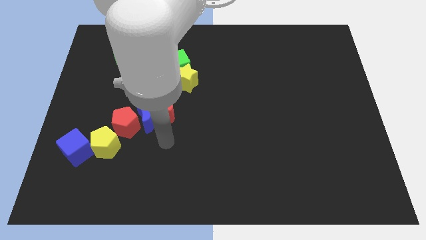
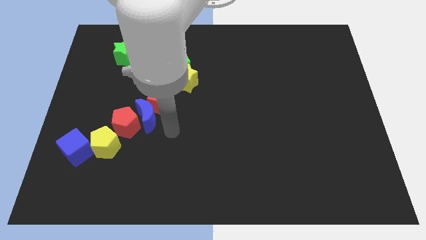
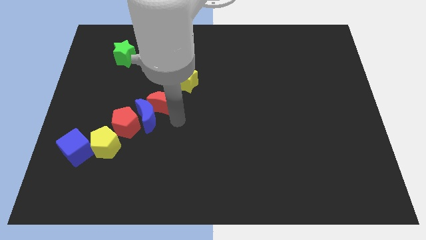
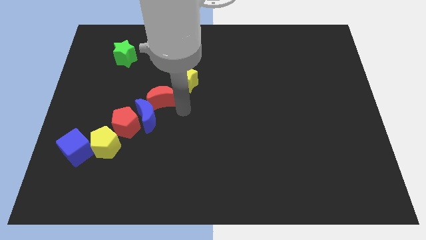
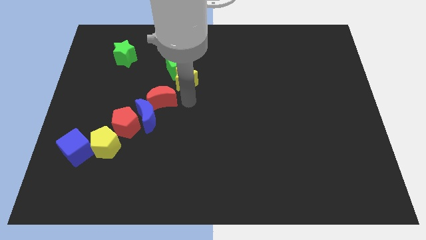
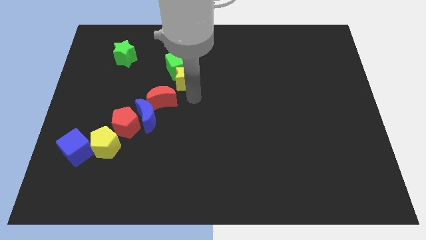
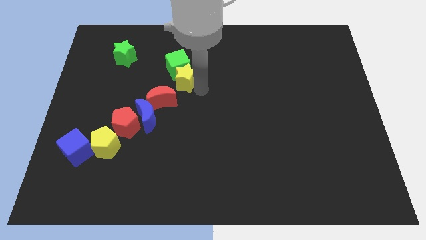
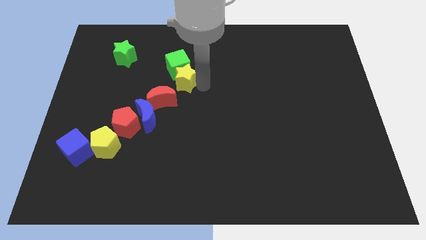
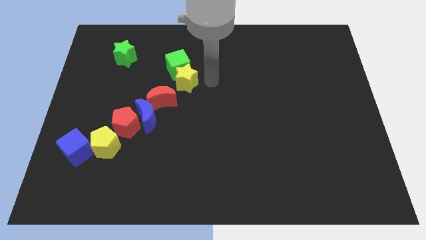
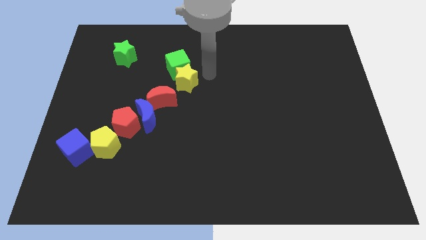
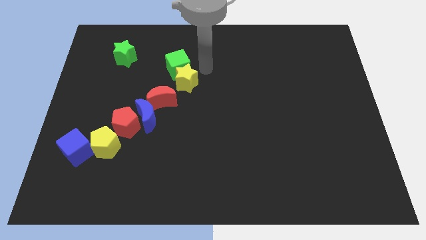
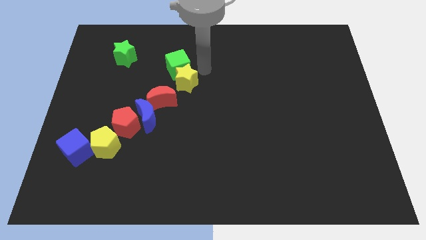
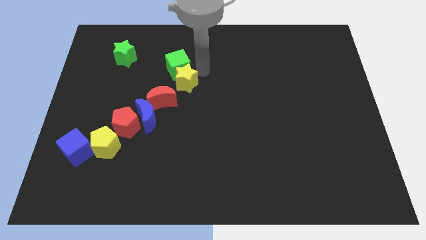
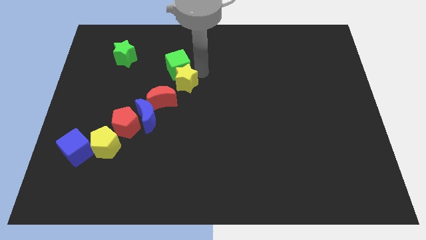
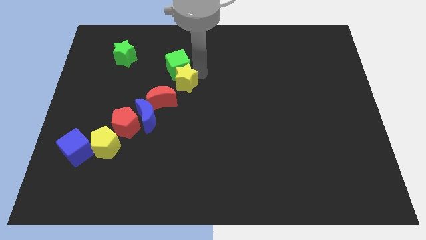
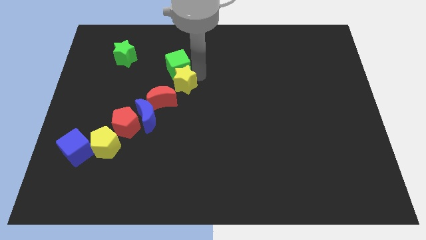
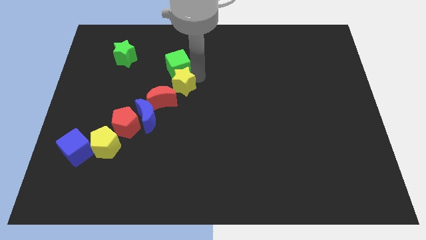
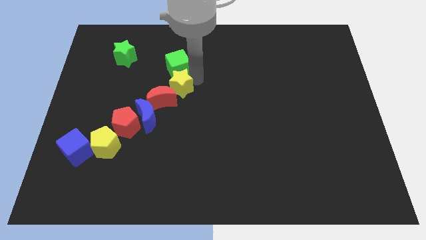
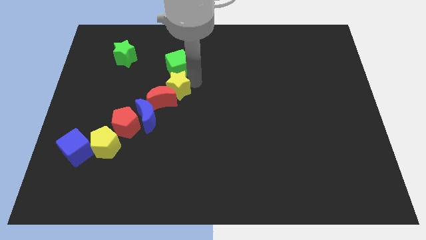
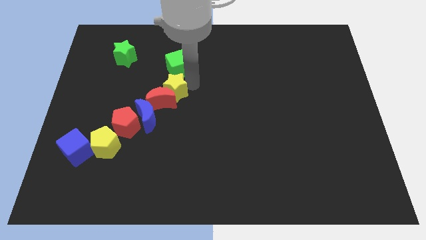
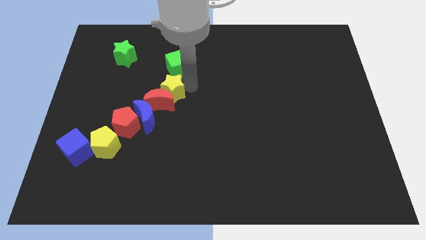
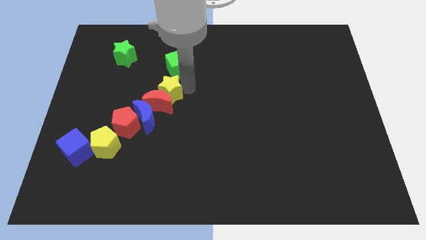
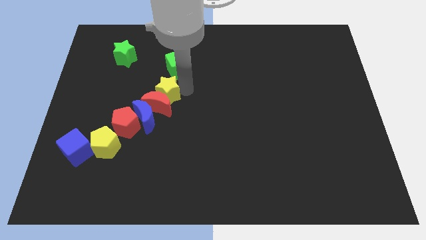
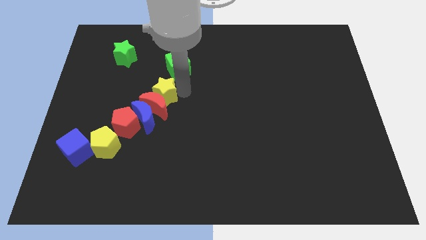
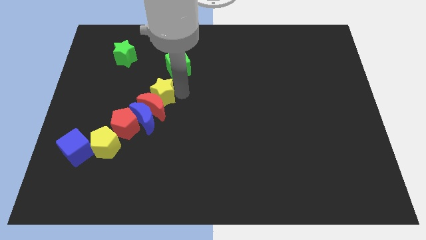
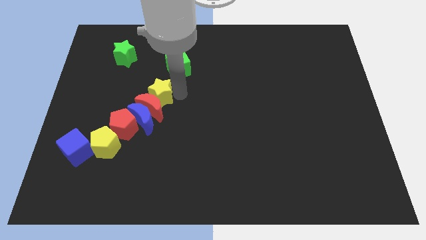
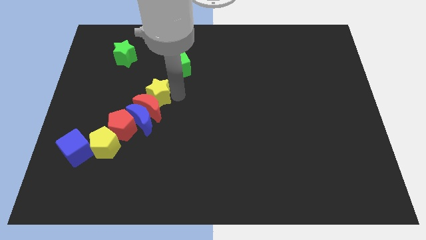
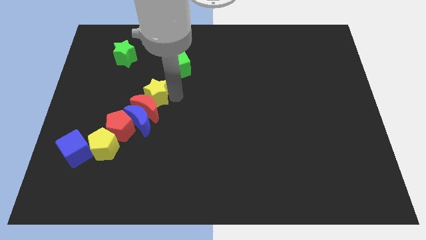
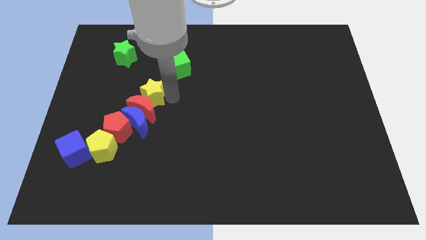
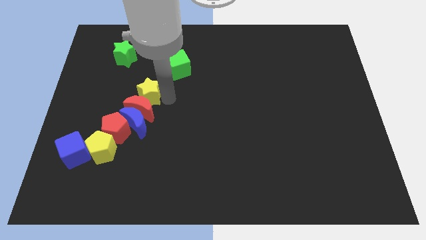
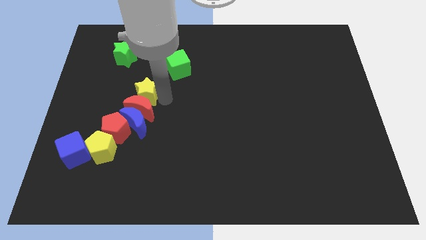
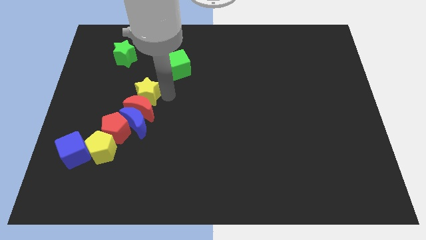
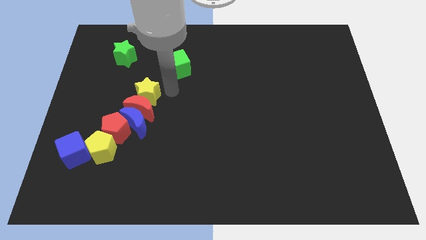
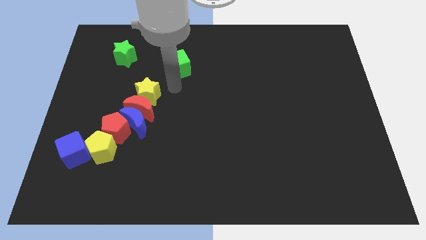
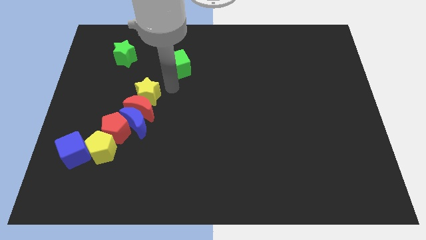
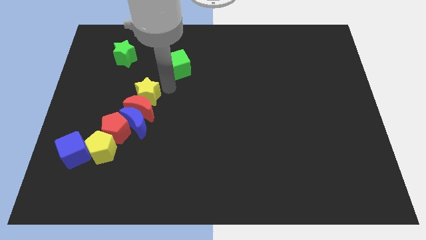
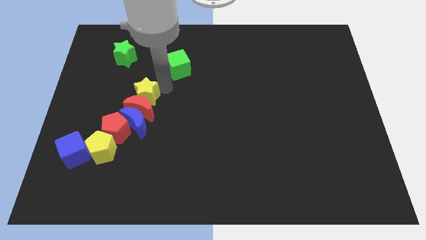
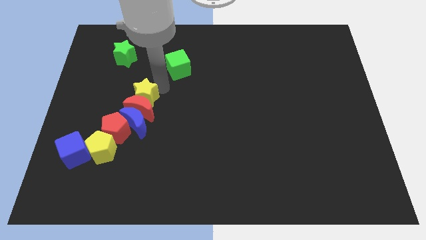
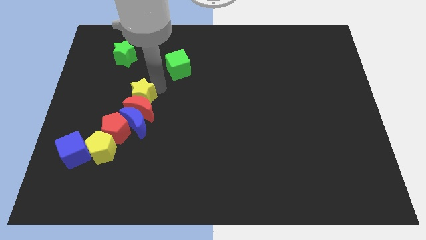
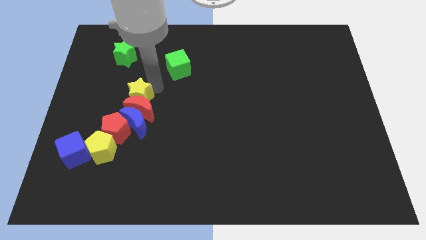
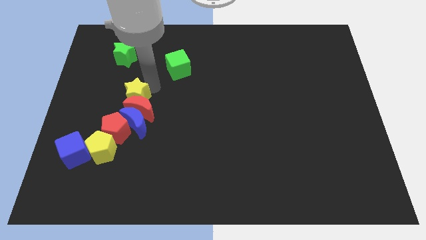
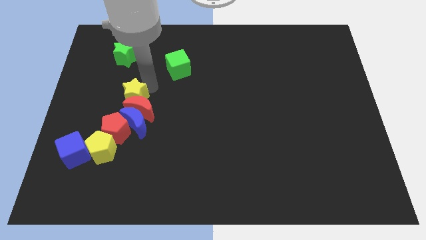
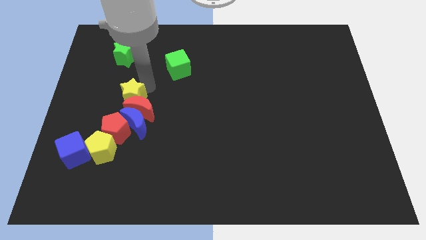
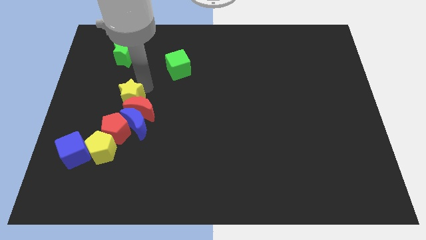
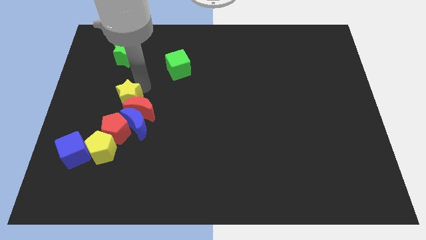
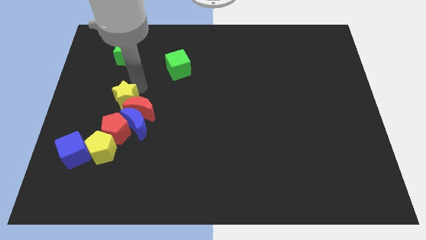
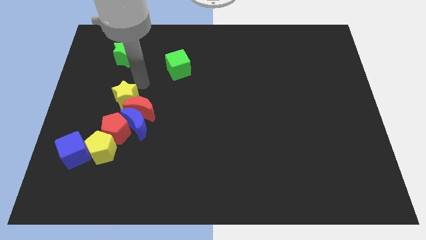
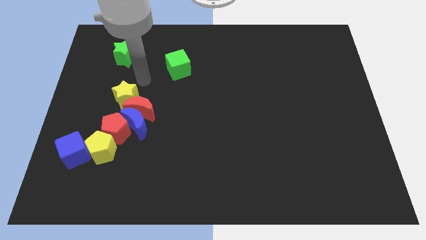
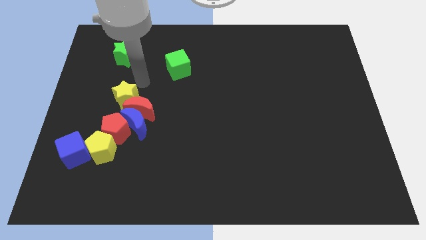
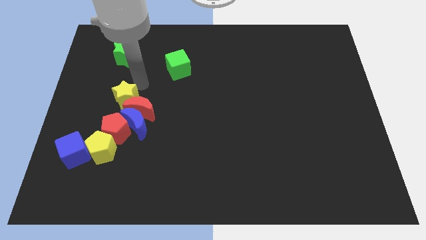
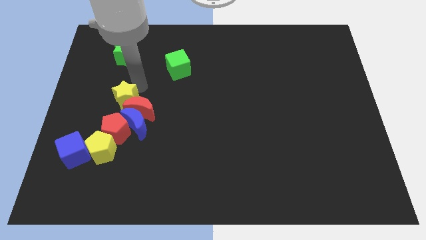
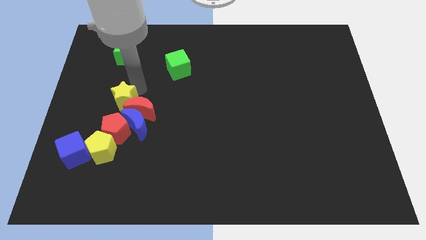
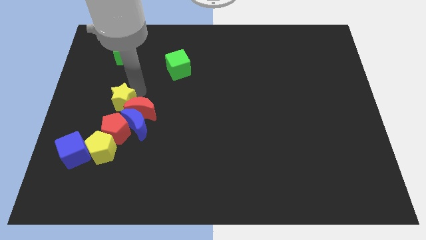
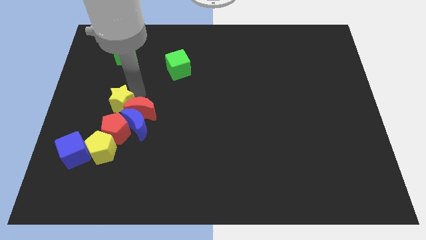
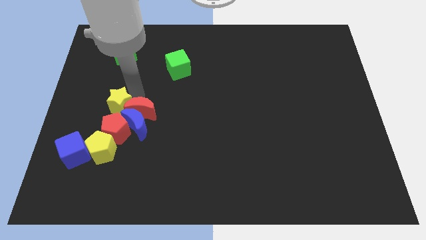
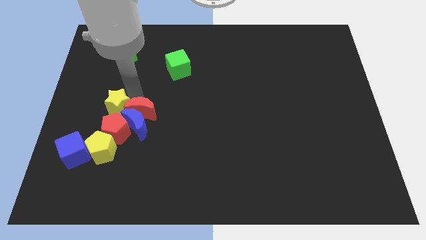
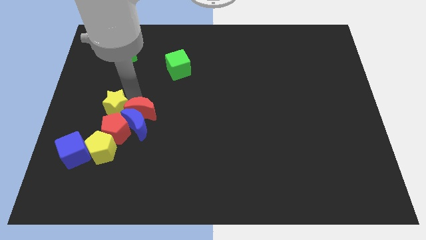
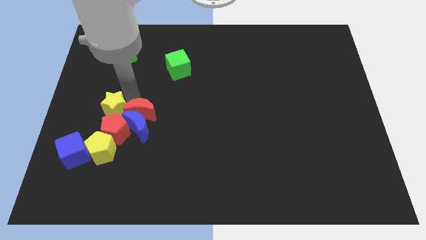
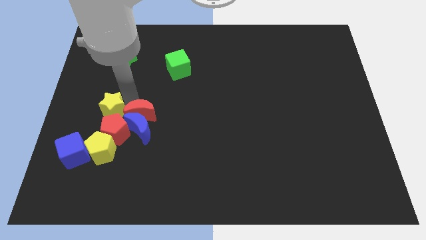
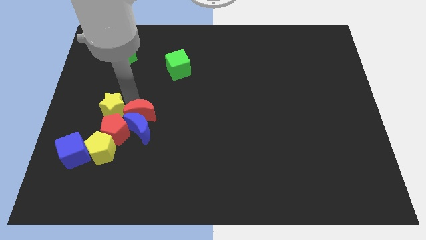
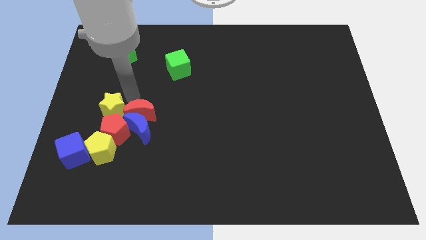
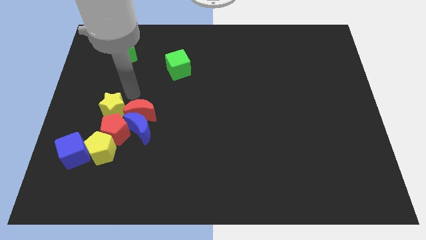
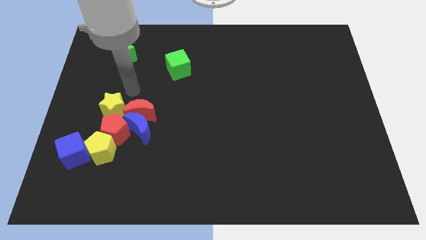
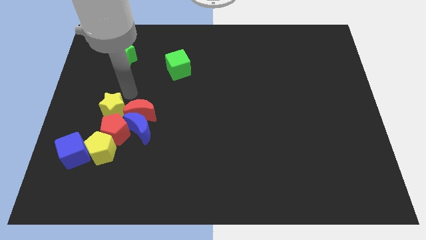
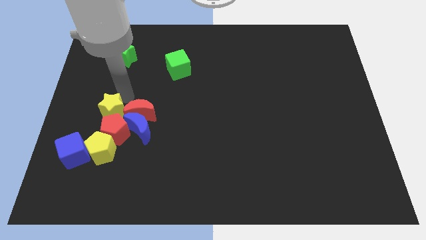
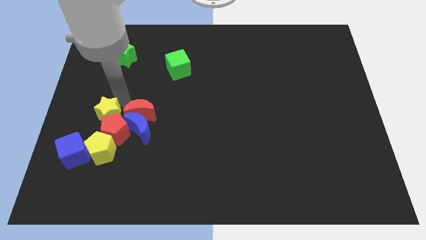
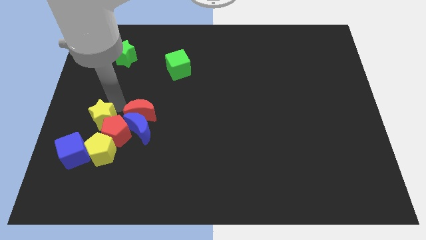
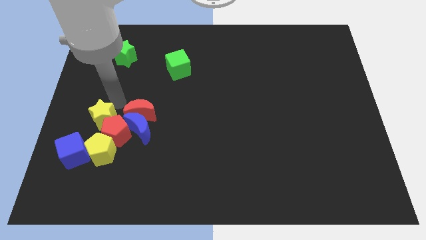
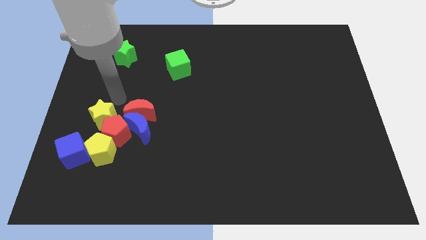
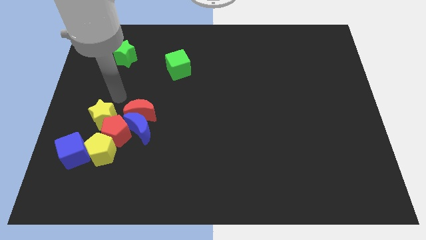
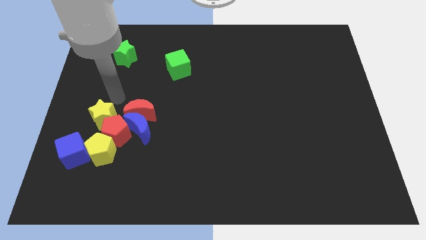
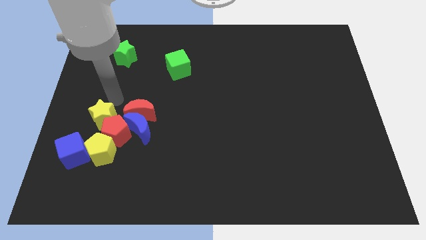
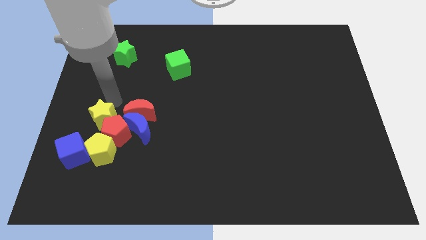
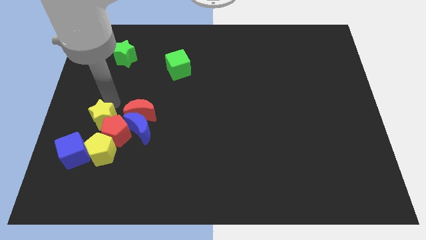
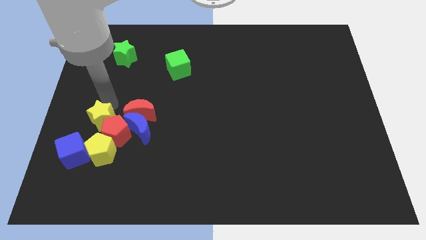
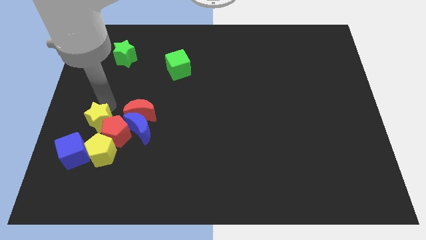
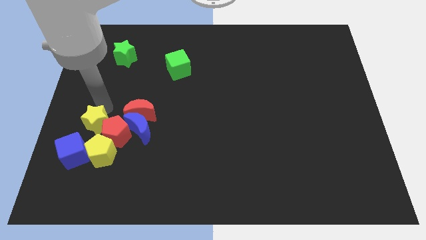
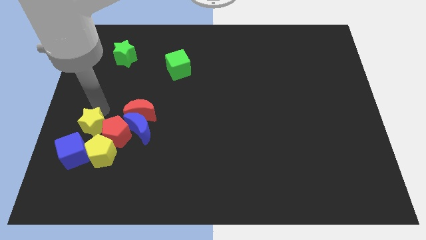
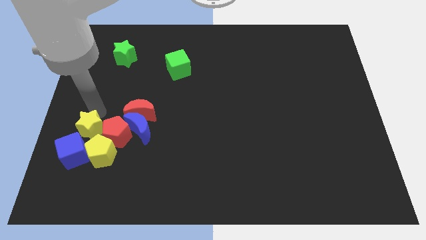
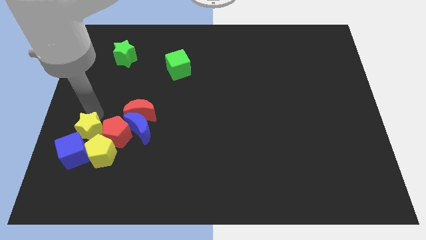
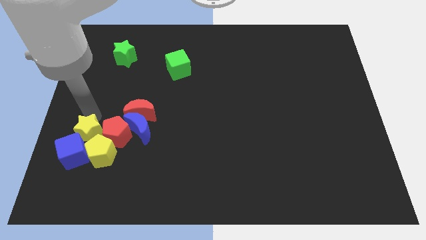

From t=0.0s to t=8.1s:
move the yellow star to the blue cube
